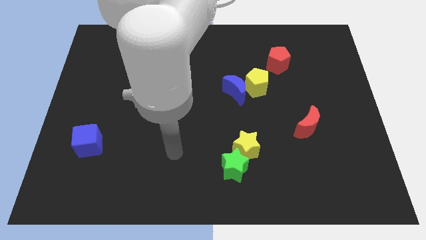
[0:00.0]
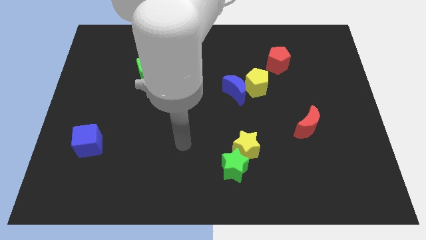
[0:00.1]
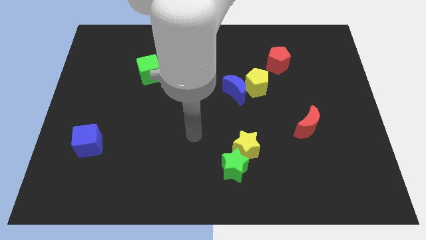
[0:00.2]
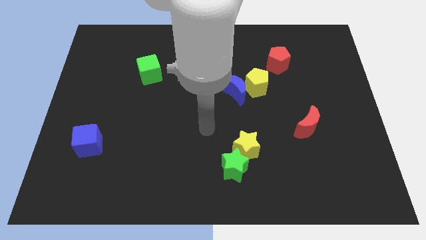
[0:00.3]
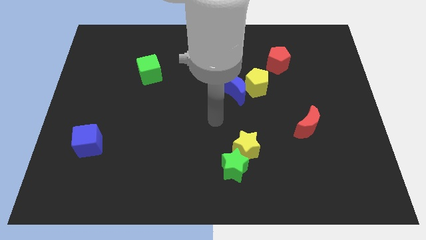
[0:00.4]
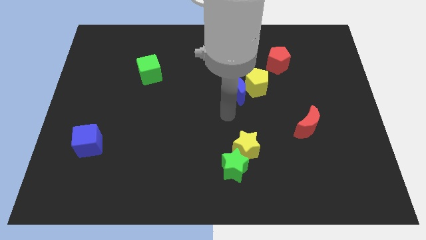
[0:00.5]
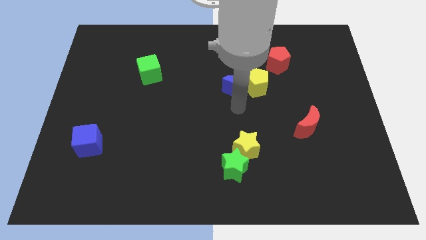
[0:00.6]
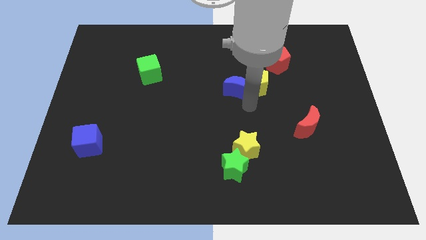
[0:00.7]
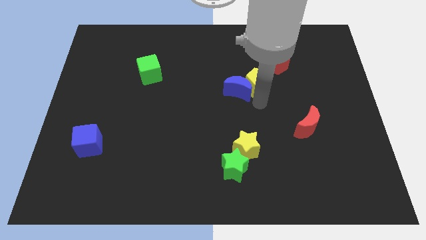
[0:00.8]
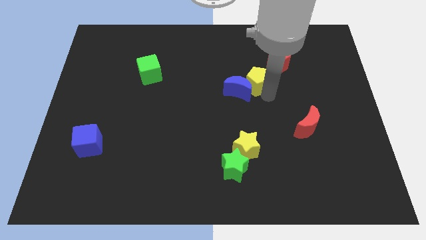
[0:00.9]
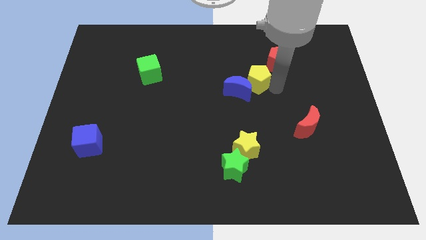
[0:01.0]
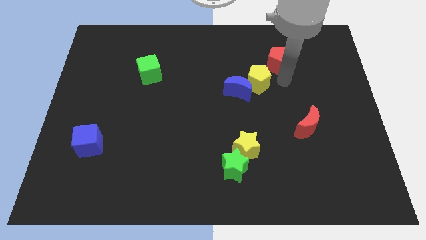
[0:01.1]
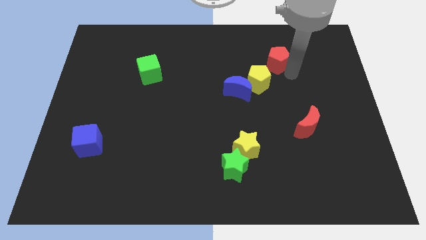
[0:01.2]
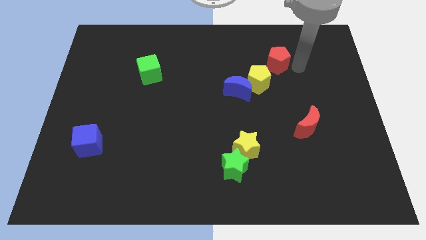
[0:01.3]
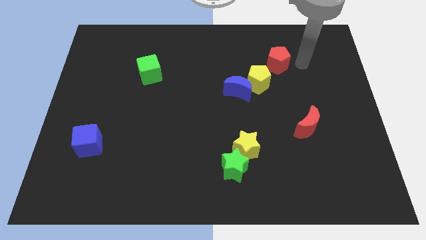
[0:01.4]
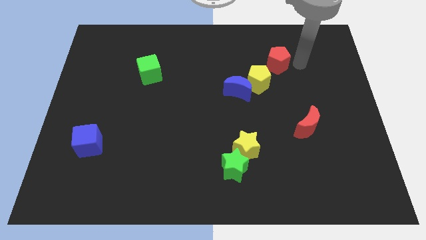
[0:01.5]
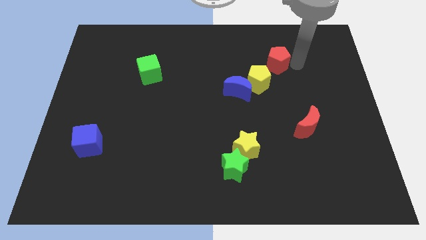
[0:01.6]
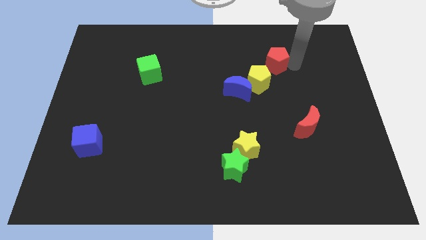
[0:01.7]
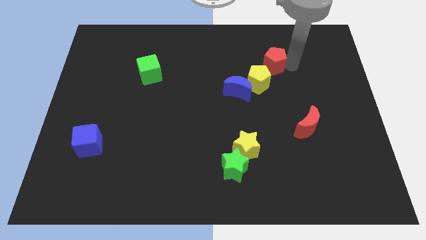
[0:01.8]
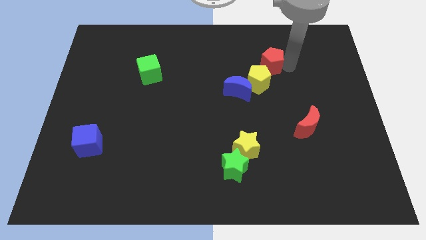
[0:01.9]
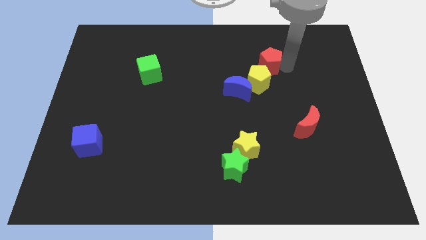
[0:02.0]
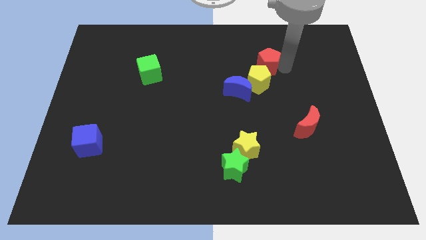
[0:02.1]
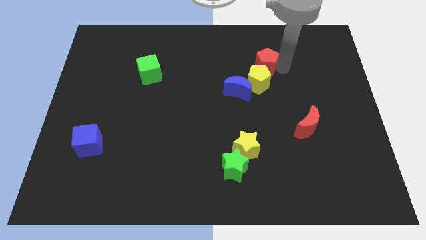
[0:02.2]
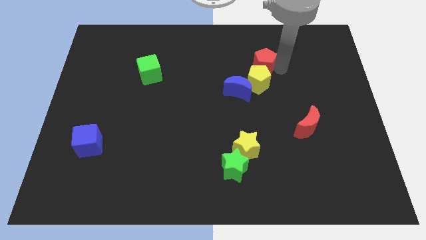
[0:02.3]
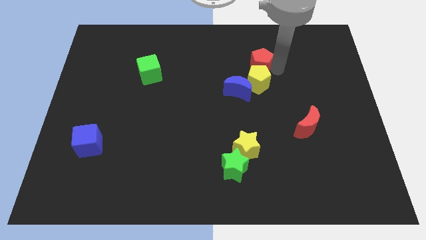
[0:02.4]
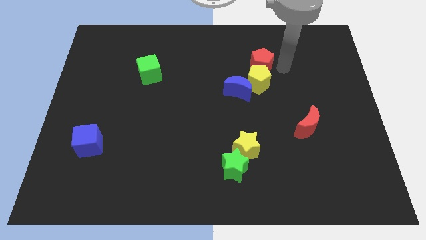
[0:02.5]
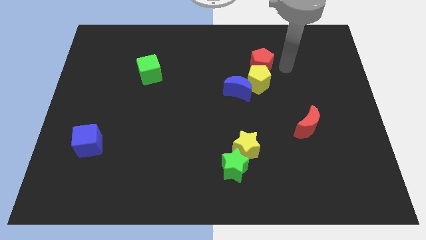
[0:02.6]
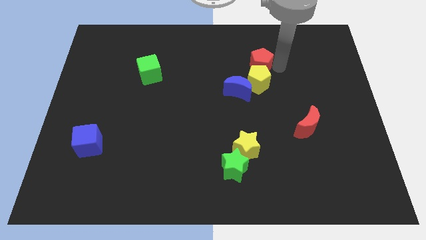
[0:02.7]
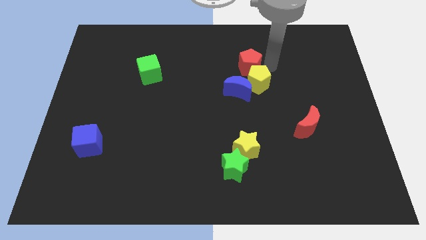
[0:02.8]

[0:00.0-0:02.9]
slide the red pentagon a bit to the left

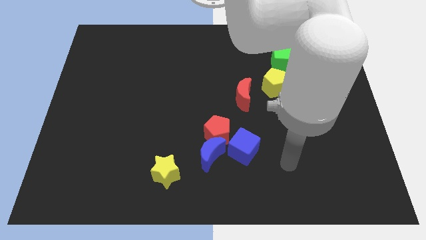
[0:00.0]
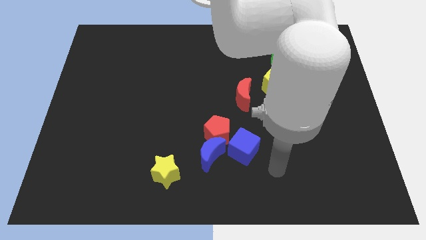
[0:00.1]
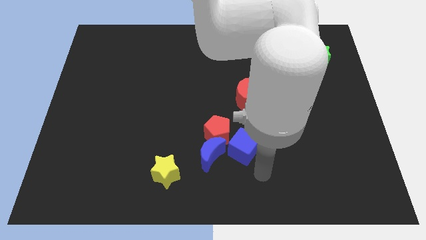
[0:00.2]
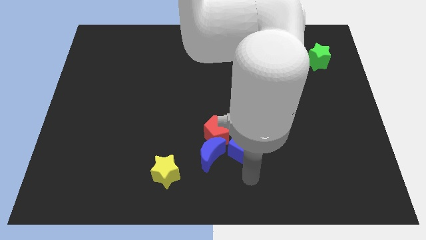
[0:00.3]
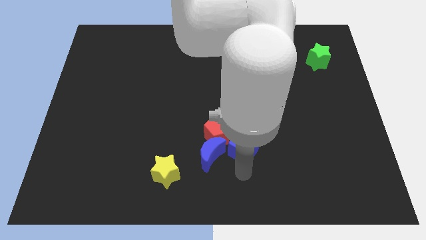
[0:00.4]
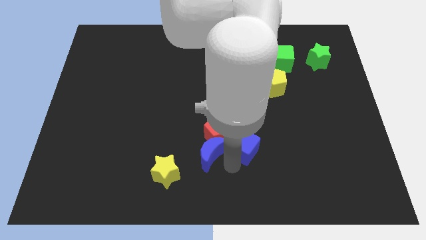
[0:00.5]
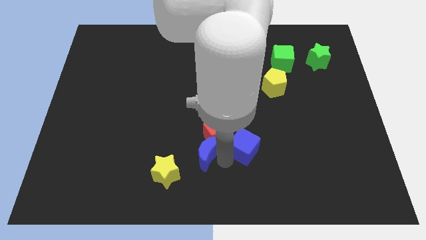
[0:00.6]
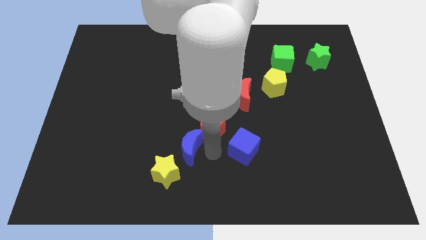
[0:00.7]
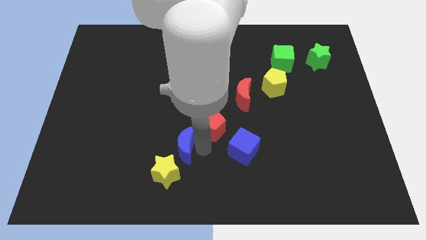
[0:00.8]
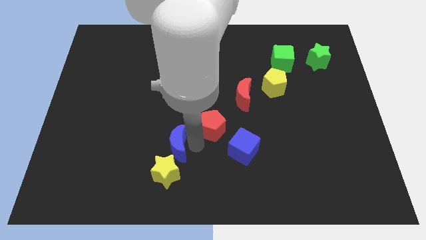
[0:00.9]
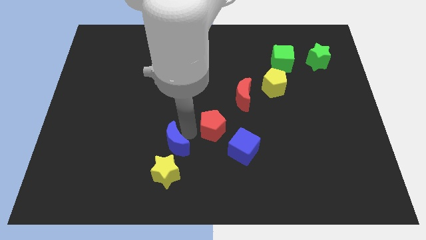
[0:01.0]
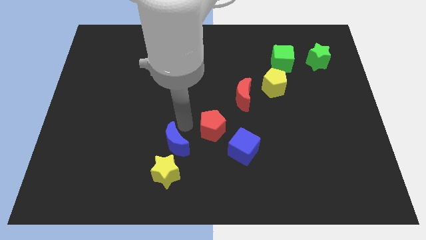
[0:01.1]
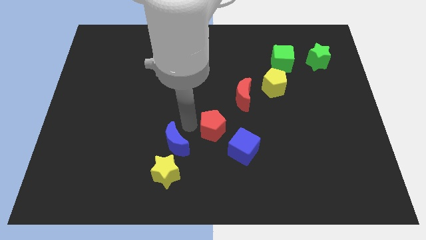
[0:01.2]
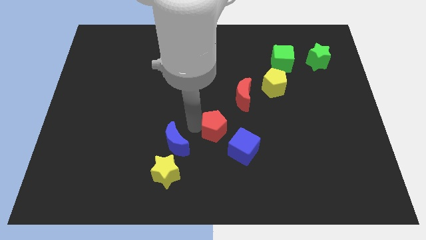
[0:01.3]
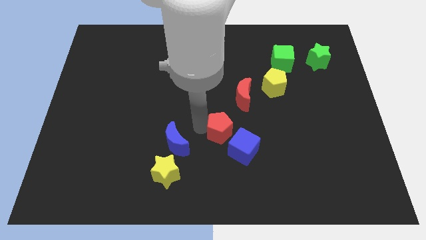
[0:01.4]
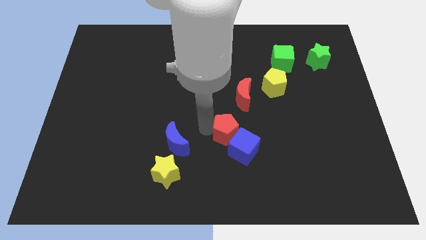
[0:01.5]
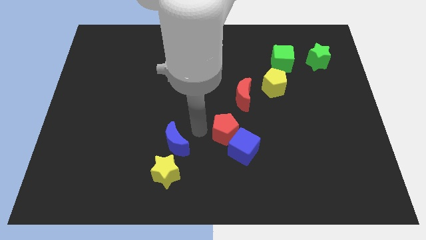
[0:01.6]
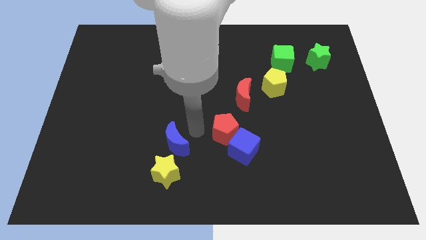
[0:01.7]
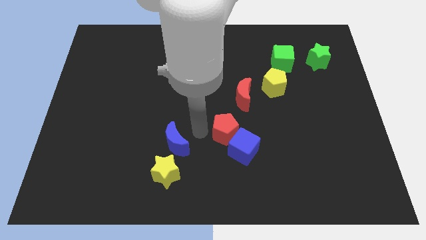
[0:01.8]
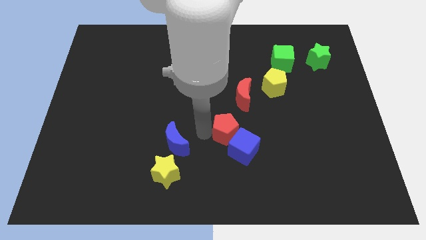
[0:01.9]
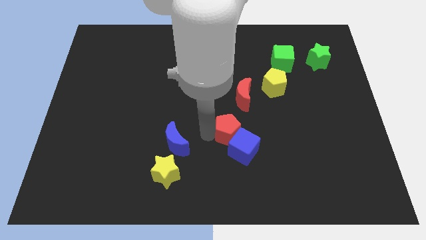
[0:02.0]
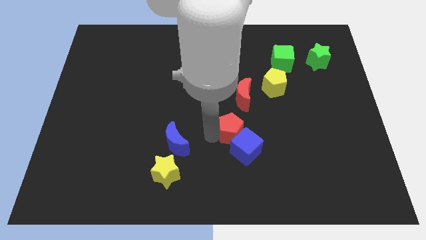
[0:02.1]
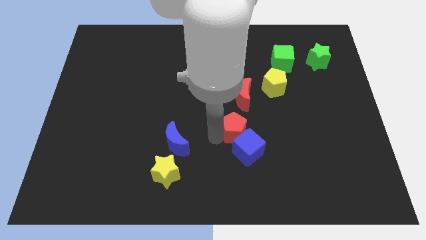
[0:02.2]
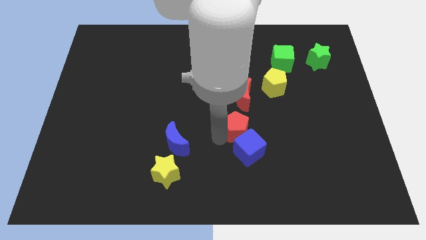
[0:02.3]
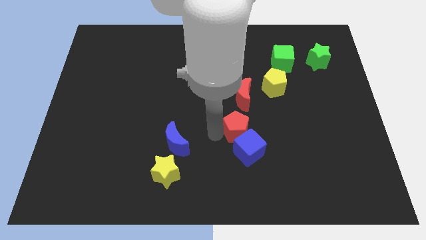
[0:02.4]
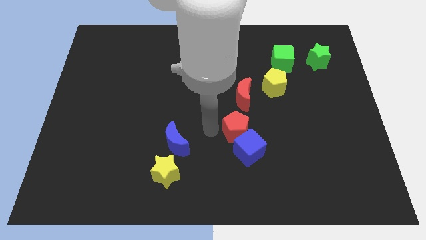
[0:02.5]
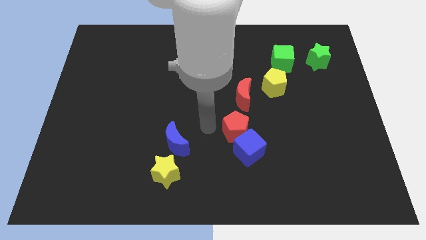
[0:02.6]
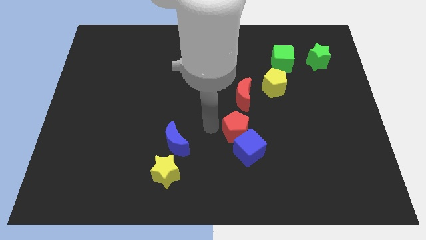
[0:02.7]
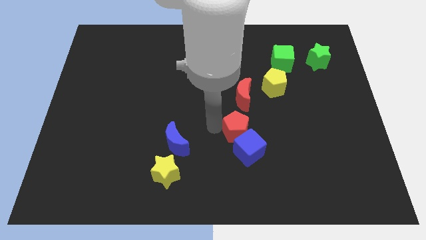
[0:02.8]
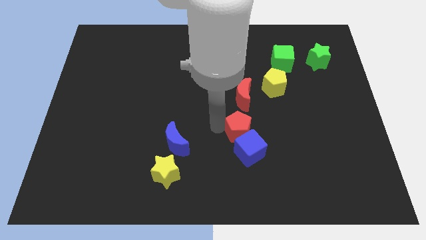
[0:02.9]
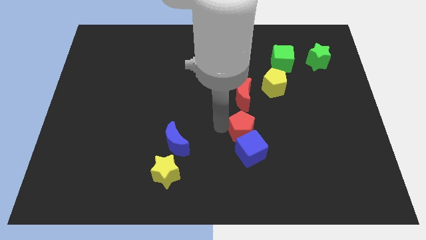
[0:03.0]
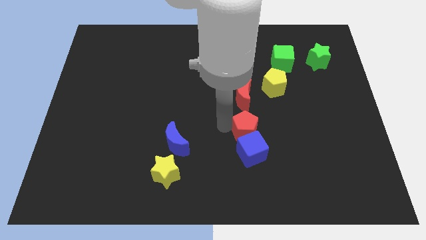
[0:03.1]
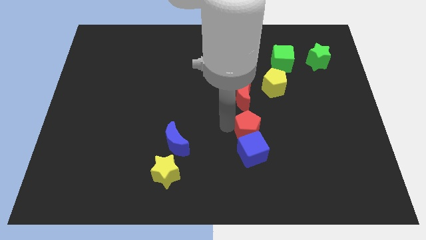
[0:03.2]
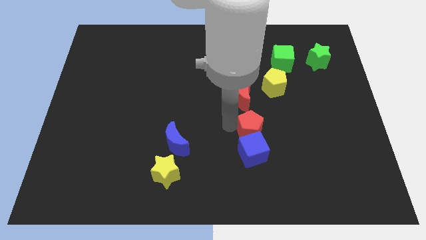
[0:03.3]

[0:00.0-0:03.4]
push the red pentagon somewhat right

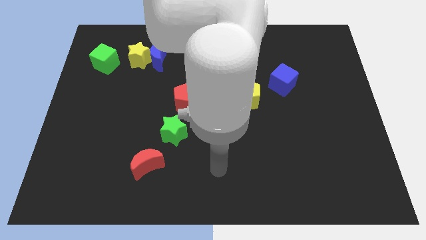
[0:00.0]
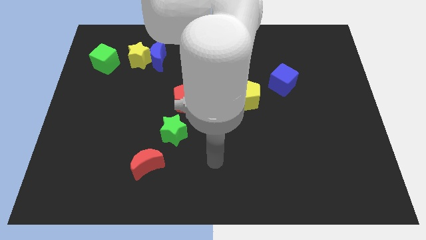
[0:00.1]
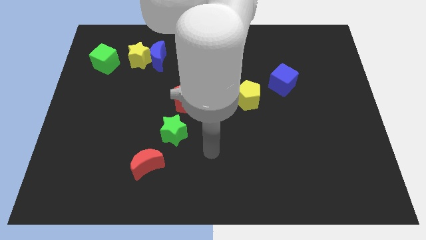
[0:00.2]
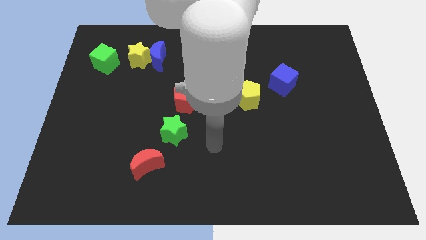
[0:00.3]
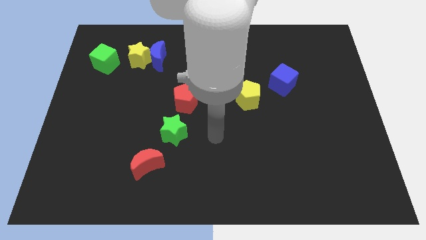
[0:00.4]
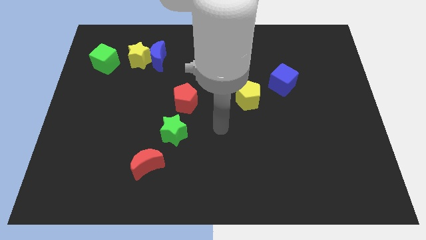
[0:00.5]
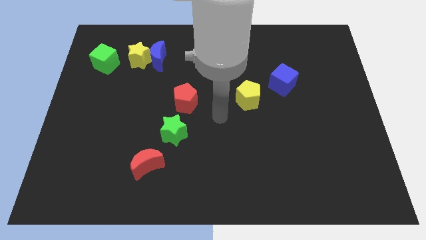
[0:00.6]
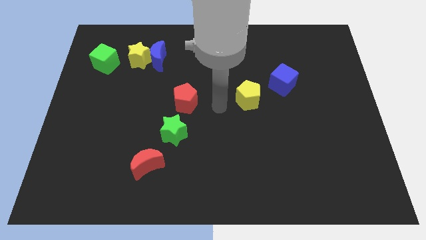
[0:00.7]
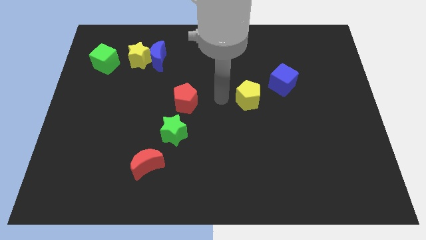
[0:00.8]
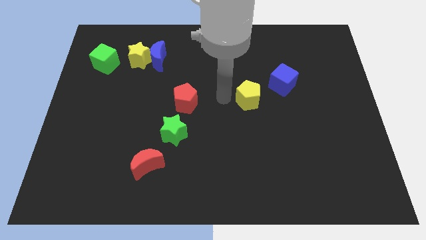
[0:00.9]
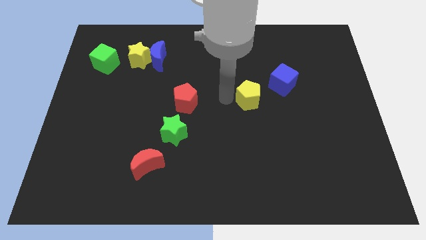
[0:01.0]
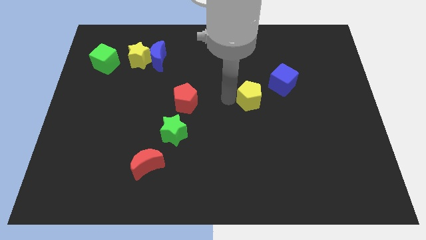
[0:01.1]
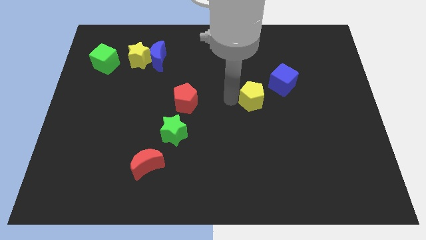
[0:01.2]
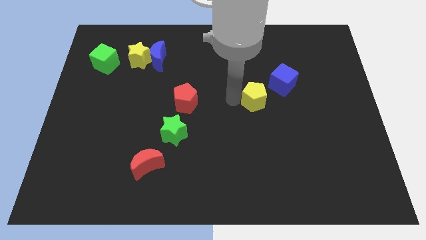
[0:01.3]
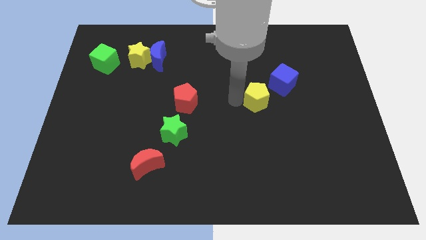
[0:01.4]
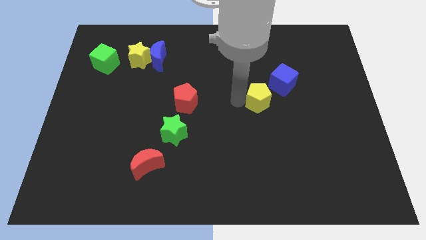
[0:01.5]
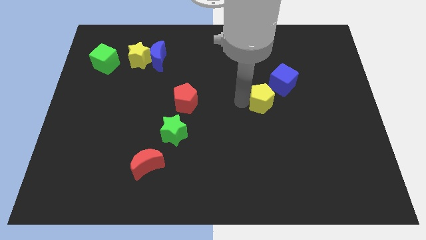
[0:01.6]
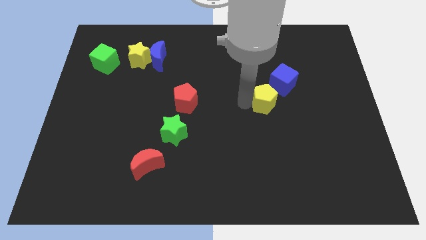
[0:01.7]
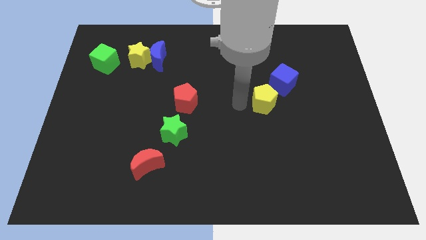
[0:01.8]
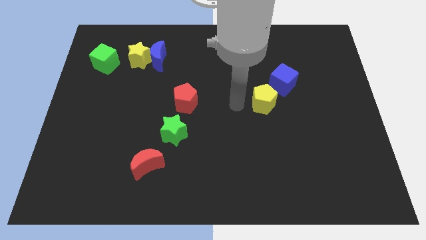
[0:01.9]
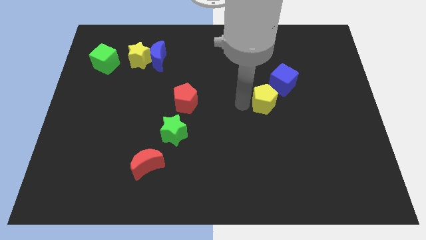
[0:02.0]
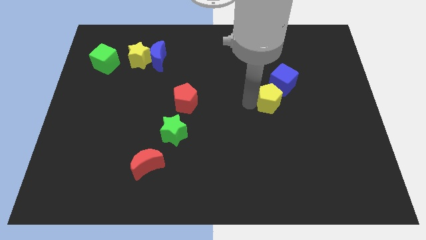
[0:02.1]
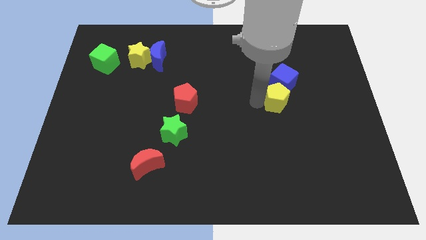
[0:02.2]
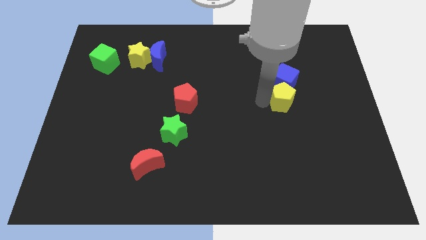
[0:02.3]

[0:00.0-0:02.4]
slide the yellow pentagon right slightly
